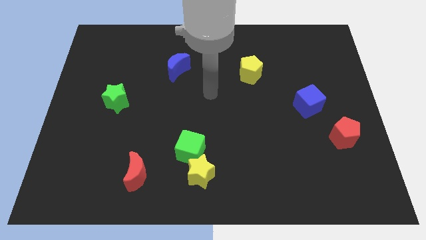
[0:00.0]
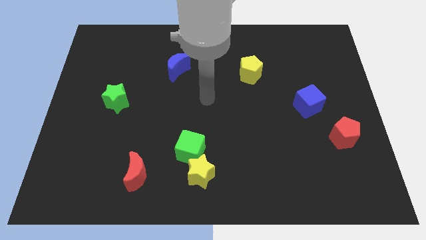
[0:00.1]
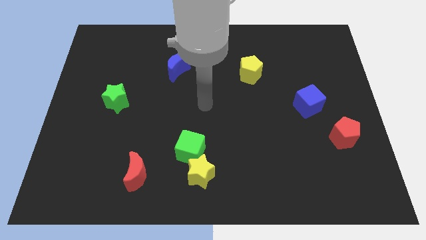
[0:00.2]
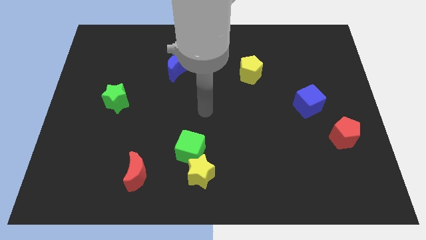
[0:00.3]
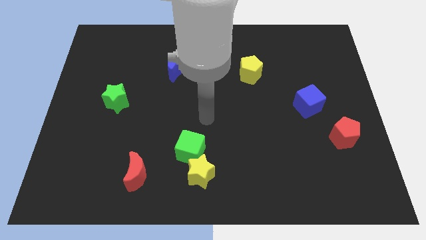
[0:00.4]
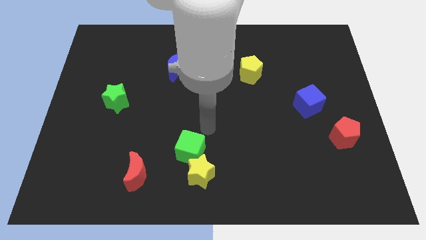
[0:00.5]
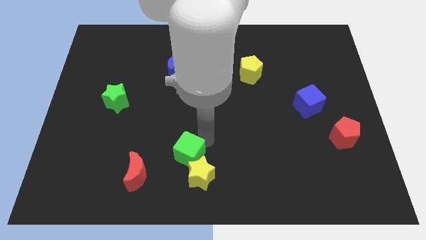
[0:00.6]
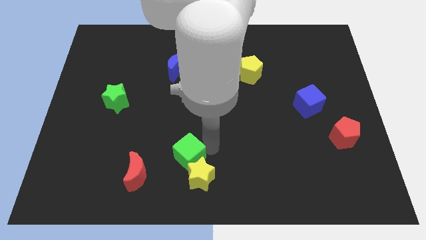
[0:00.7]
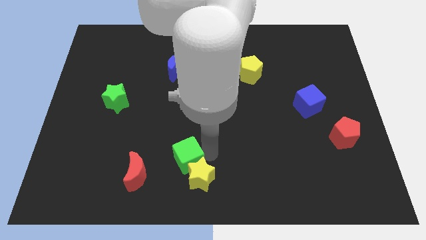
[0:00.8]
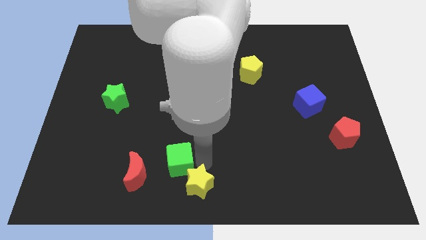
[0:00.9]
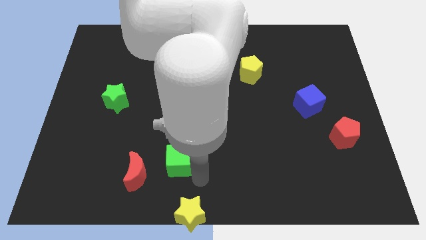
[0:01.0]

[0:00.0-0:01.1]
pull the green cube apart from the yellow star

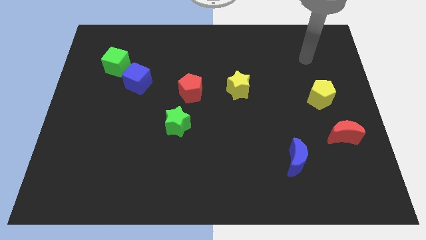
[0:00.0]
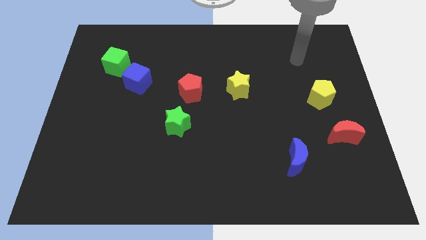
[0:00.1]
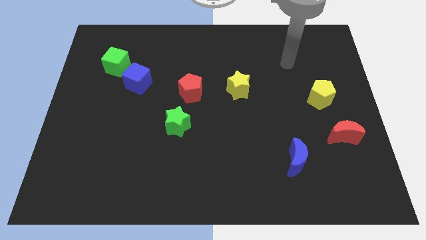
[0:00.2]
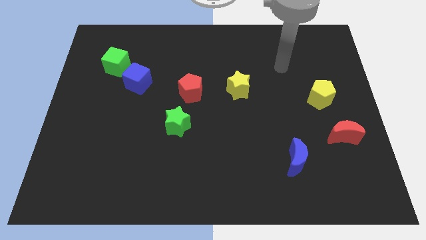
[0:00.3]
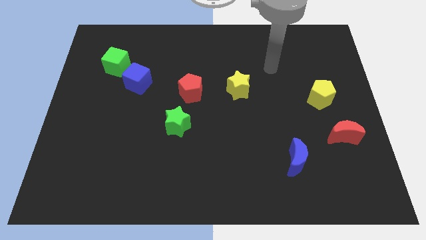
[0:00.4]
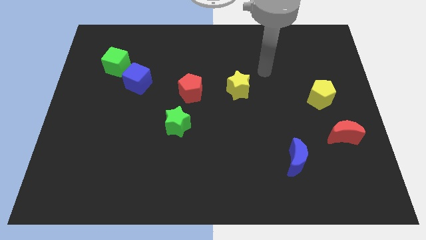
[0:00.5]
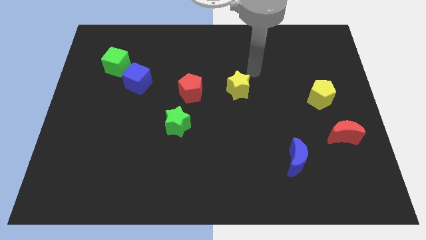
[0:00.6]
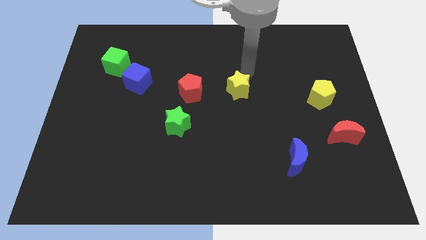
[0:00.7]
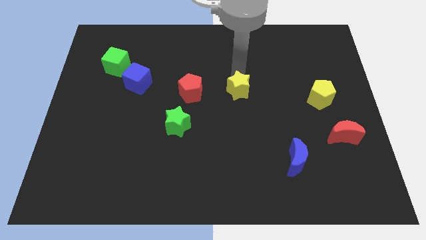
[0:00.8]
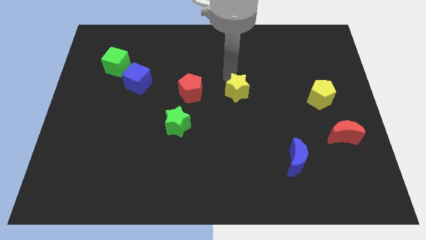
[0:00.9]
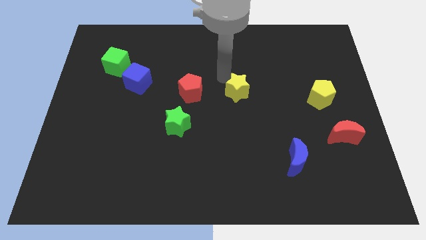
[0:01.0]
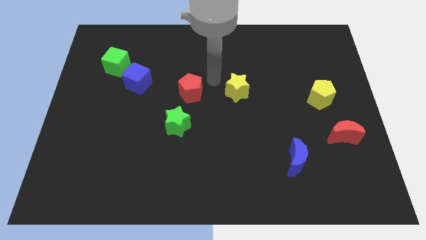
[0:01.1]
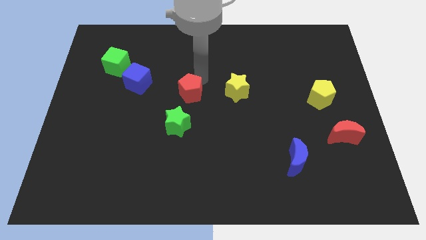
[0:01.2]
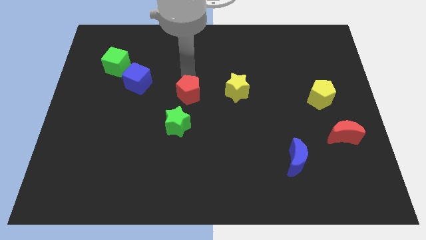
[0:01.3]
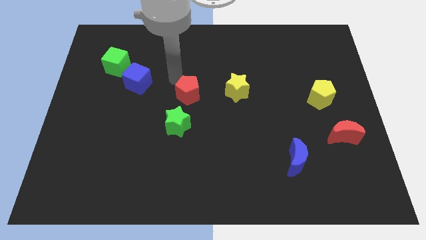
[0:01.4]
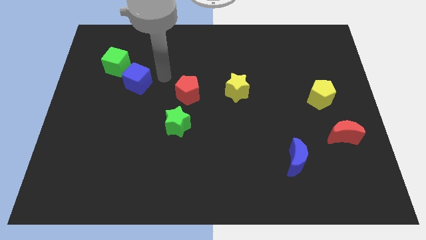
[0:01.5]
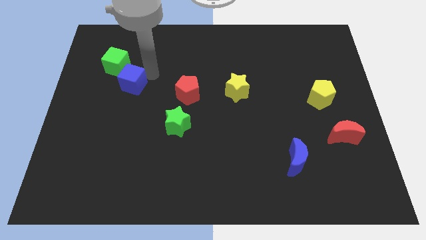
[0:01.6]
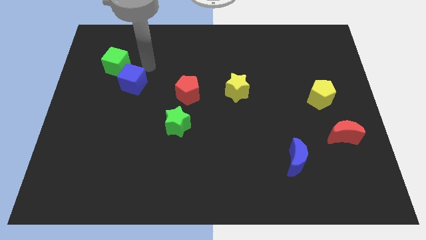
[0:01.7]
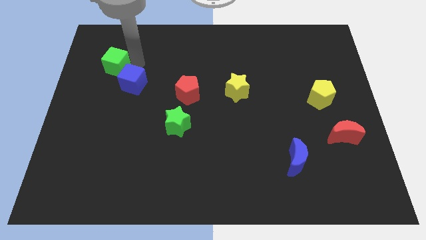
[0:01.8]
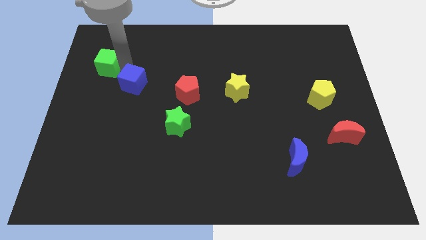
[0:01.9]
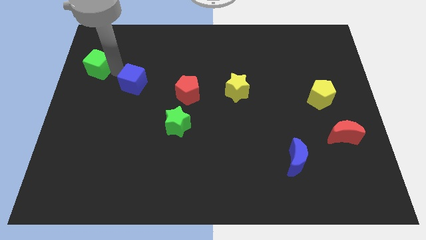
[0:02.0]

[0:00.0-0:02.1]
separate the blue cube from the green cube

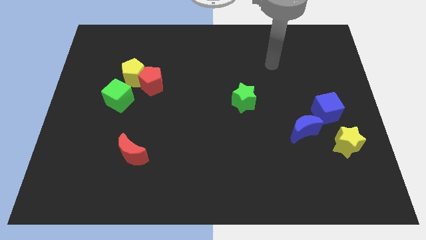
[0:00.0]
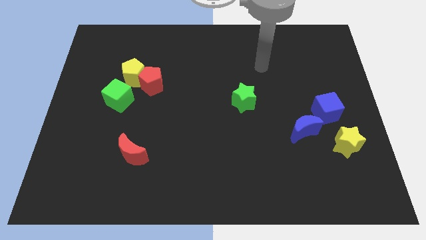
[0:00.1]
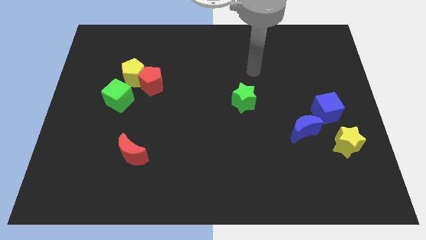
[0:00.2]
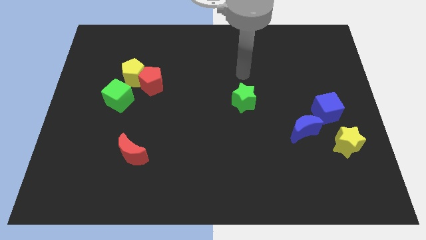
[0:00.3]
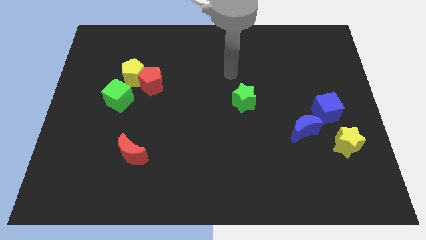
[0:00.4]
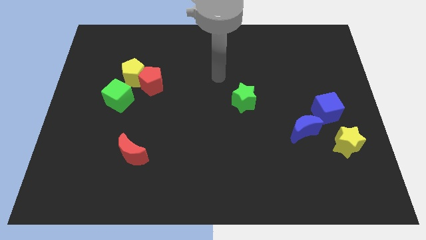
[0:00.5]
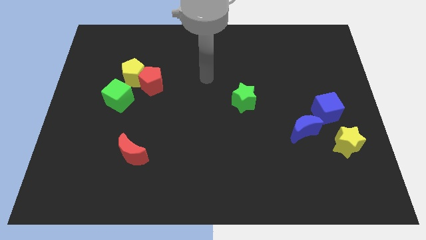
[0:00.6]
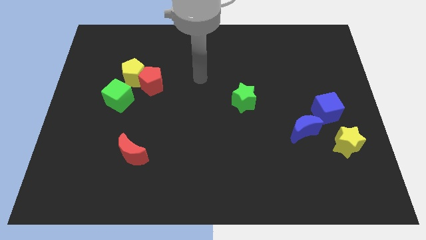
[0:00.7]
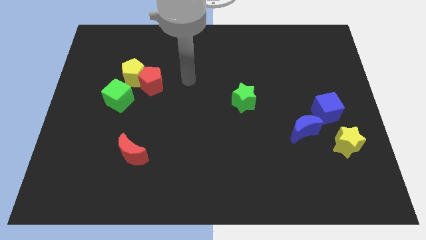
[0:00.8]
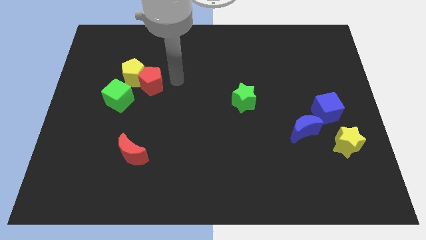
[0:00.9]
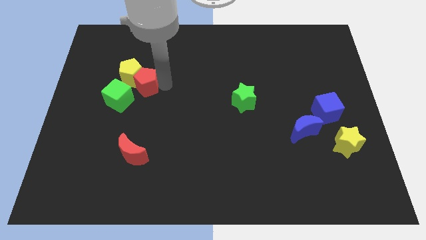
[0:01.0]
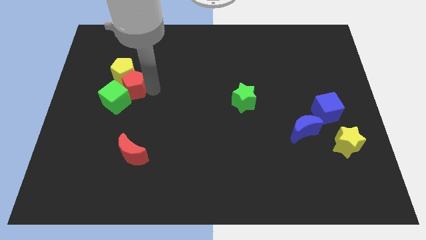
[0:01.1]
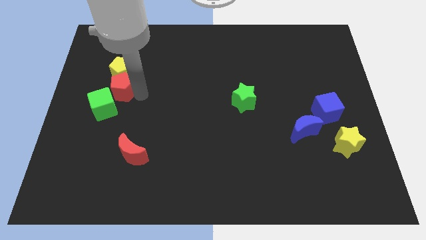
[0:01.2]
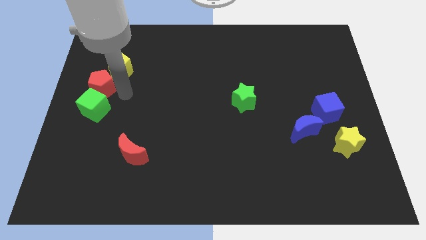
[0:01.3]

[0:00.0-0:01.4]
pull the yellow pentagon apart from the red pentagon and green cube

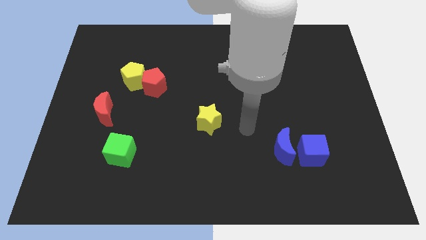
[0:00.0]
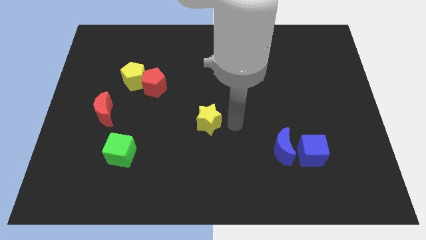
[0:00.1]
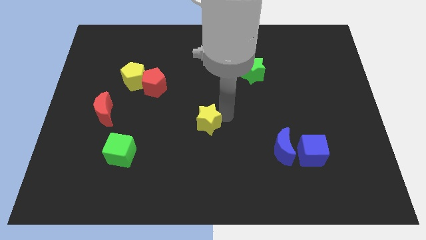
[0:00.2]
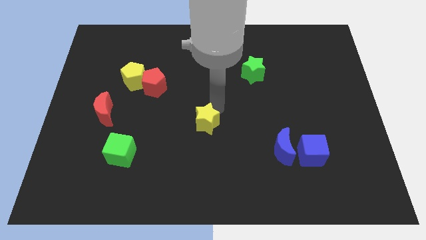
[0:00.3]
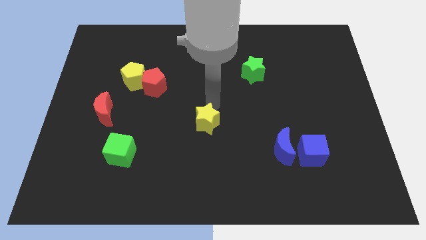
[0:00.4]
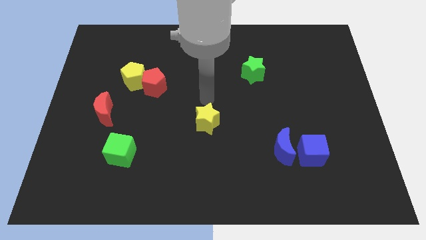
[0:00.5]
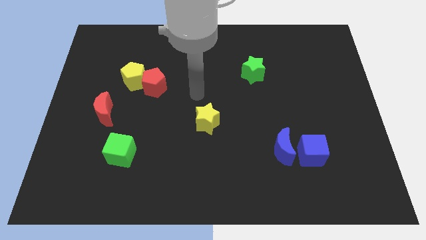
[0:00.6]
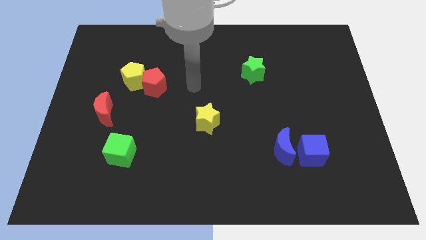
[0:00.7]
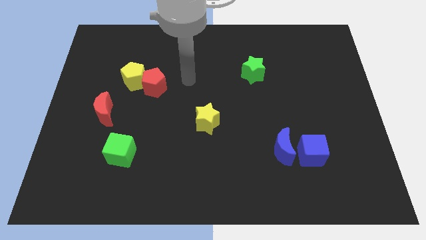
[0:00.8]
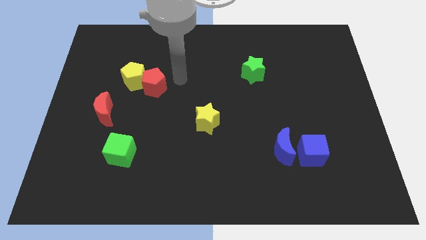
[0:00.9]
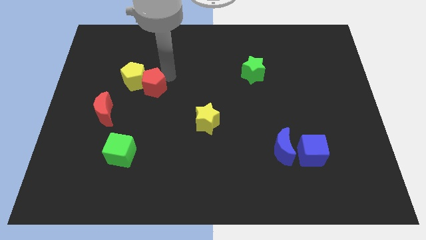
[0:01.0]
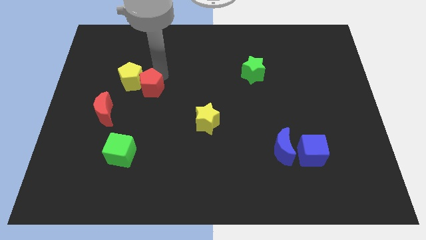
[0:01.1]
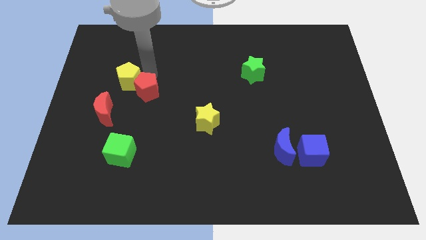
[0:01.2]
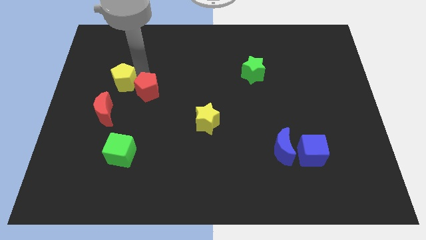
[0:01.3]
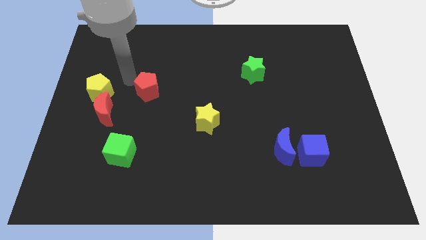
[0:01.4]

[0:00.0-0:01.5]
pull the red pentagon apart from the yellow pentagon

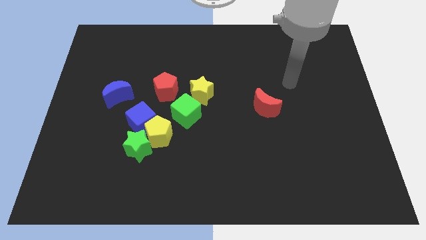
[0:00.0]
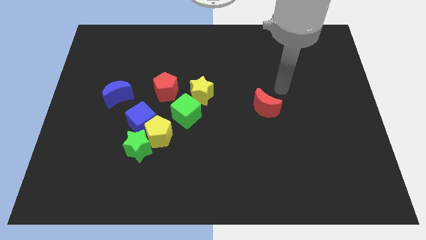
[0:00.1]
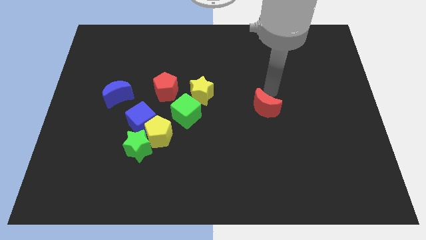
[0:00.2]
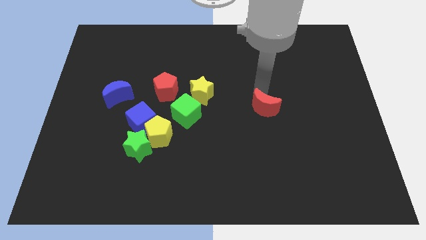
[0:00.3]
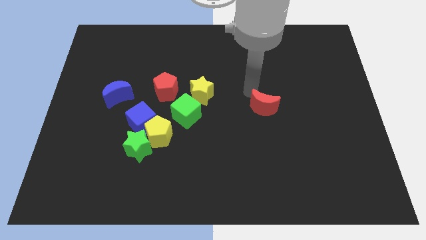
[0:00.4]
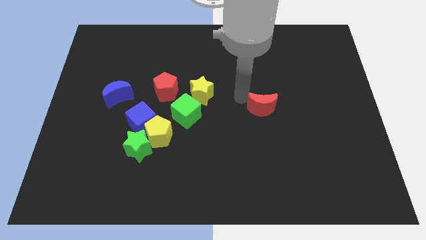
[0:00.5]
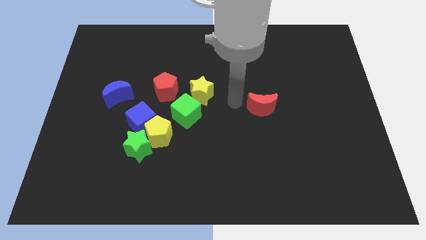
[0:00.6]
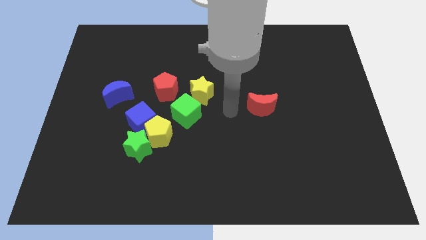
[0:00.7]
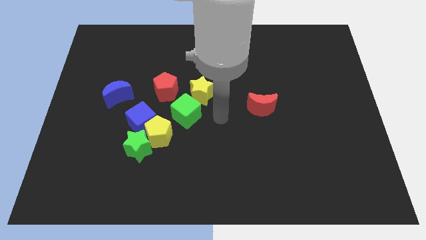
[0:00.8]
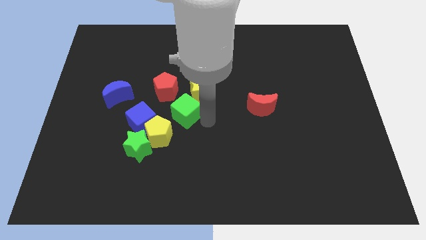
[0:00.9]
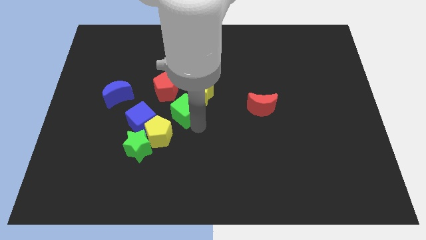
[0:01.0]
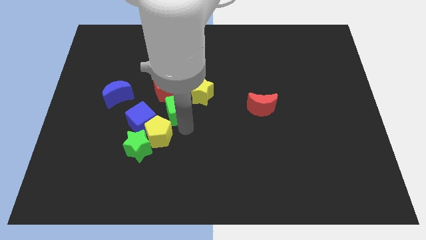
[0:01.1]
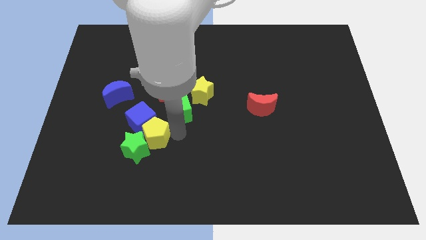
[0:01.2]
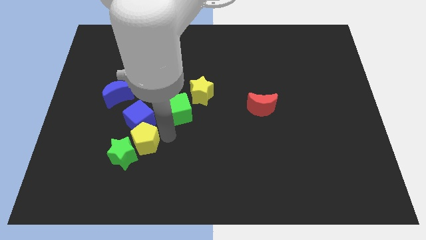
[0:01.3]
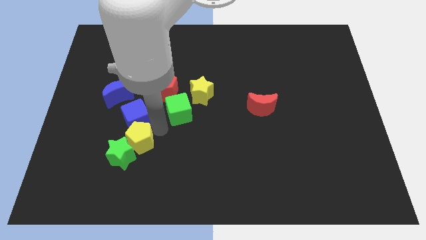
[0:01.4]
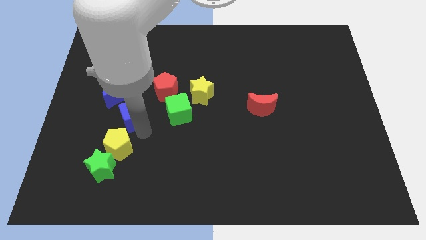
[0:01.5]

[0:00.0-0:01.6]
separate the green star from the yellow pentagon and blue cube

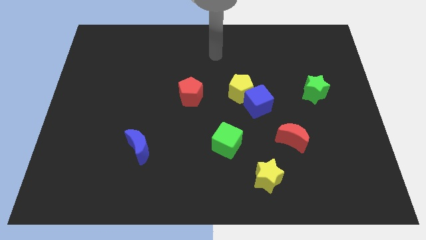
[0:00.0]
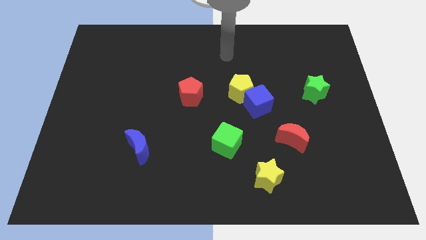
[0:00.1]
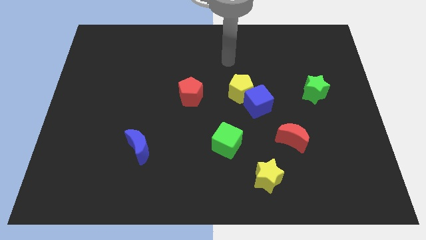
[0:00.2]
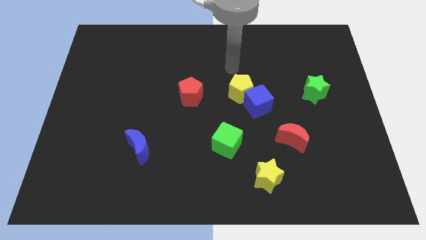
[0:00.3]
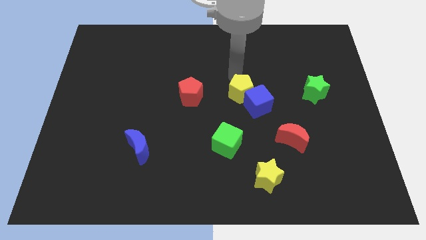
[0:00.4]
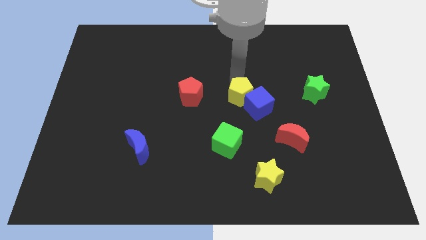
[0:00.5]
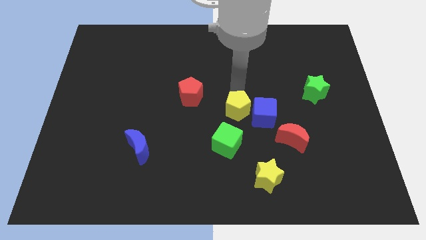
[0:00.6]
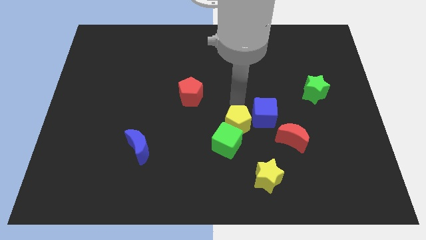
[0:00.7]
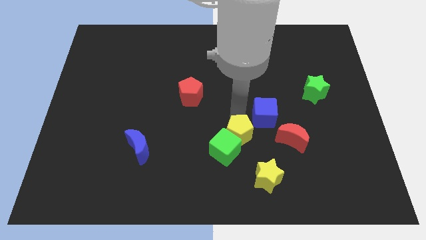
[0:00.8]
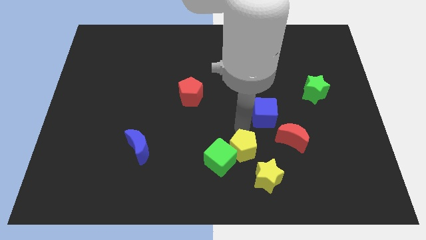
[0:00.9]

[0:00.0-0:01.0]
pull the blue cube apart from the yellow pentagon

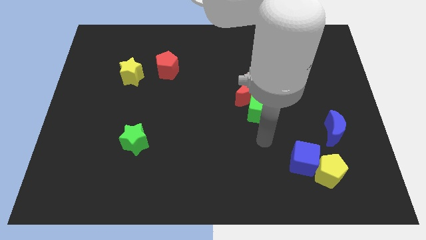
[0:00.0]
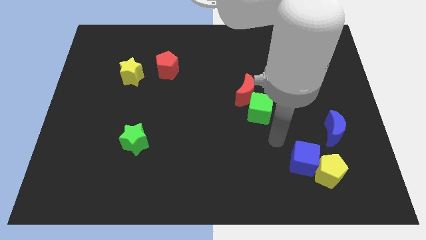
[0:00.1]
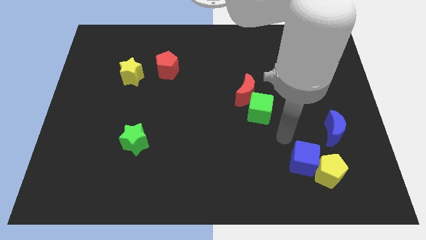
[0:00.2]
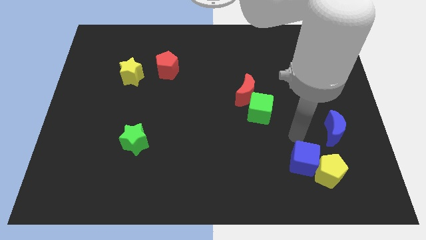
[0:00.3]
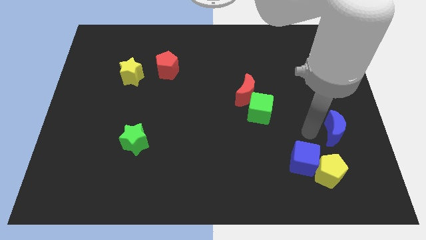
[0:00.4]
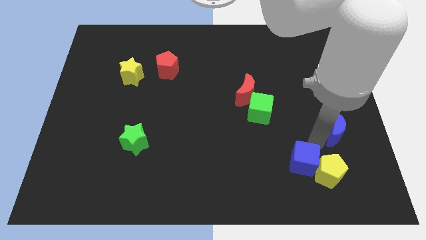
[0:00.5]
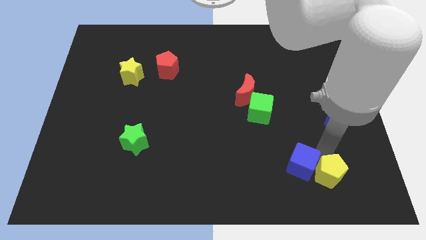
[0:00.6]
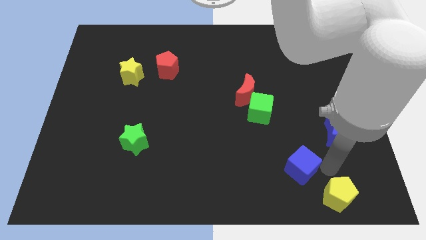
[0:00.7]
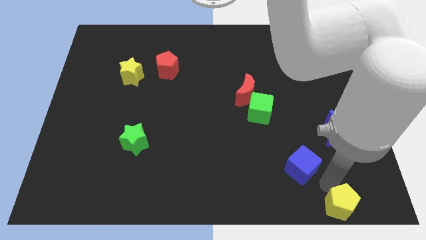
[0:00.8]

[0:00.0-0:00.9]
separate the blue cube from the yellow pentagon
